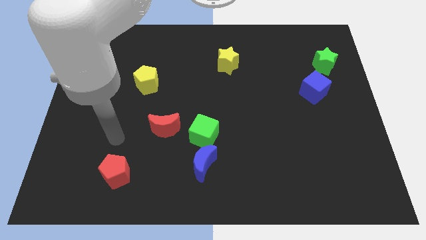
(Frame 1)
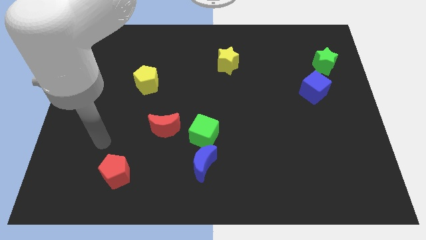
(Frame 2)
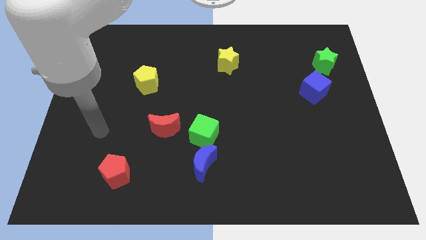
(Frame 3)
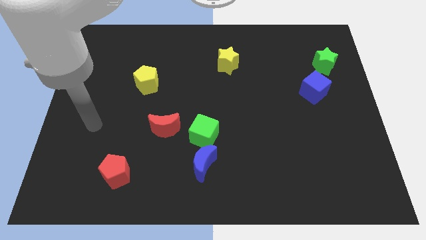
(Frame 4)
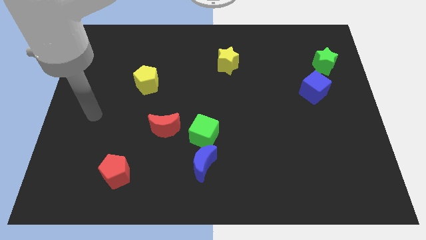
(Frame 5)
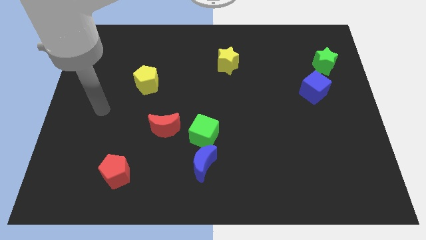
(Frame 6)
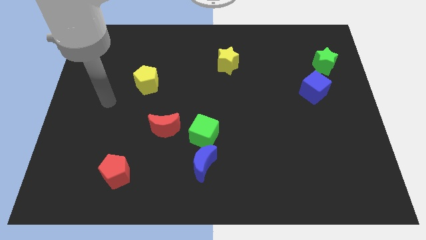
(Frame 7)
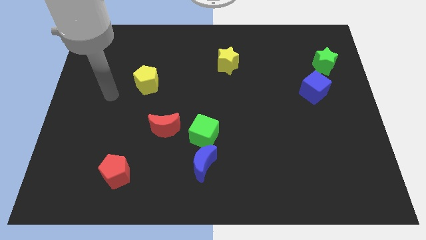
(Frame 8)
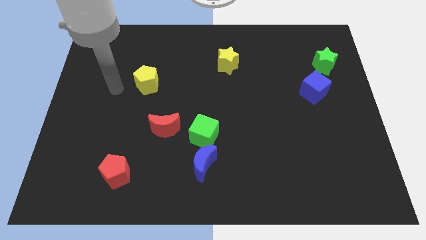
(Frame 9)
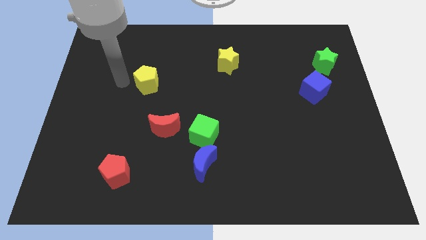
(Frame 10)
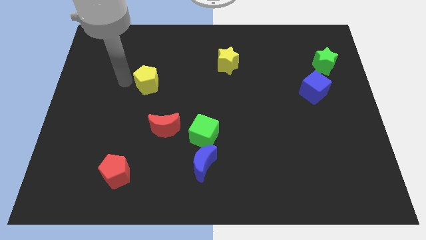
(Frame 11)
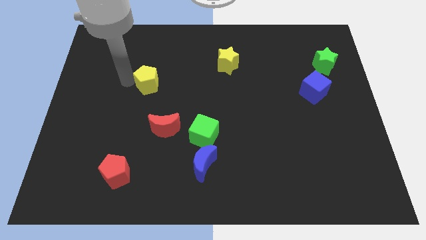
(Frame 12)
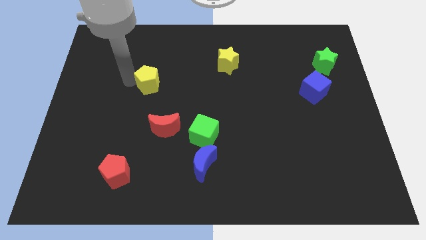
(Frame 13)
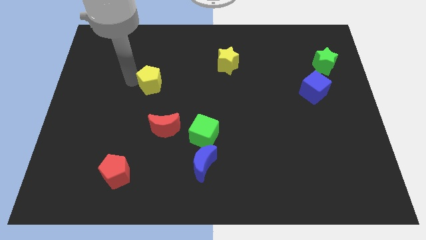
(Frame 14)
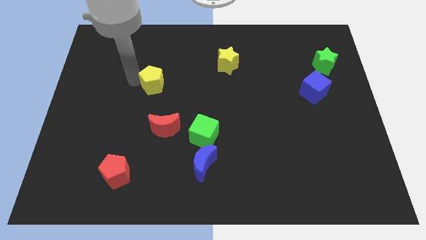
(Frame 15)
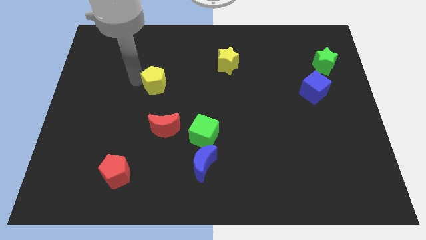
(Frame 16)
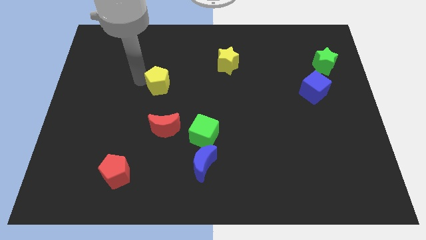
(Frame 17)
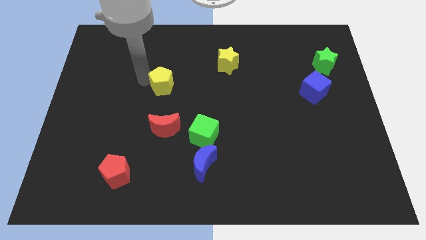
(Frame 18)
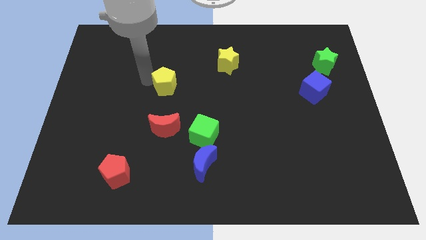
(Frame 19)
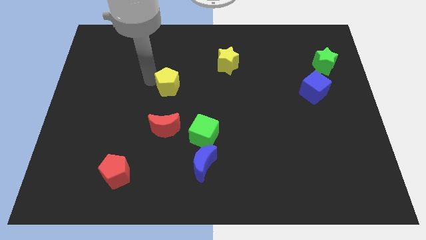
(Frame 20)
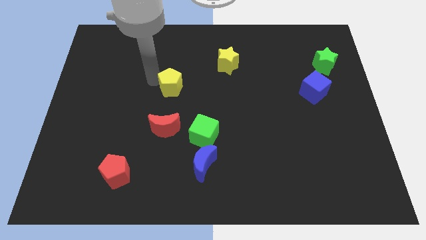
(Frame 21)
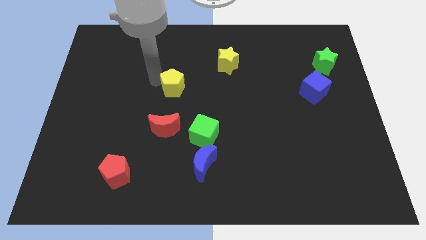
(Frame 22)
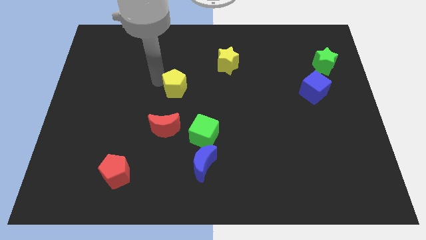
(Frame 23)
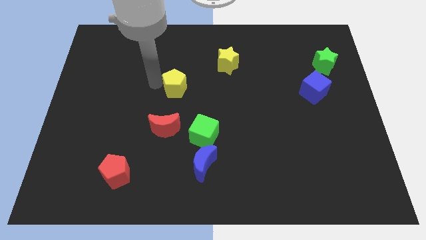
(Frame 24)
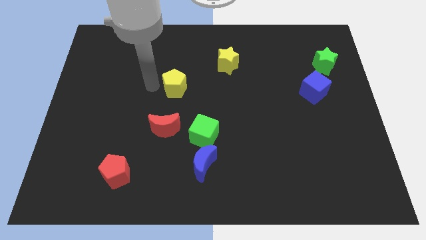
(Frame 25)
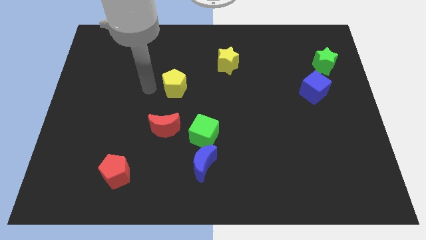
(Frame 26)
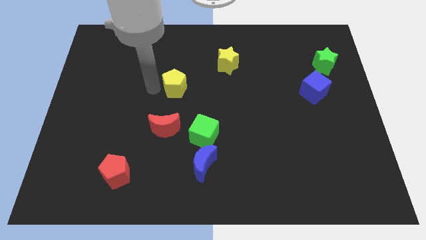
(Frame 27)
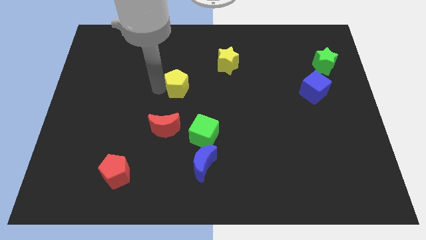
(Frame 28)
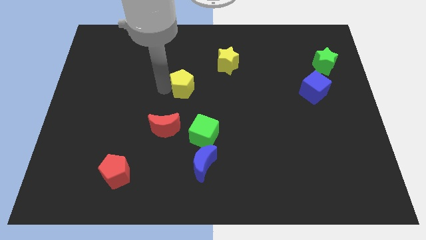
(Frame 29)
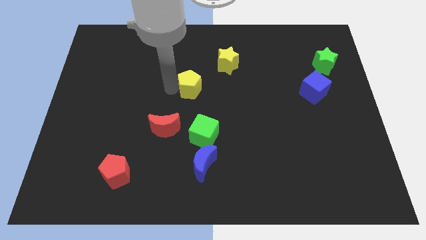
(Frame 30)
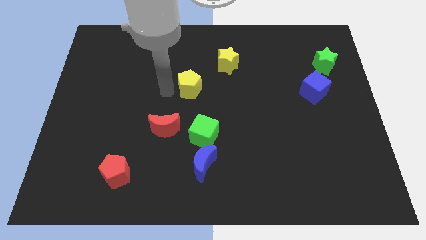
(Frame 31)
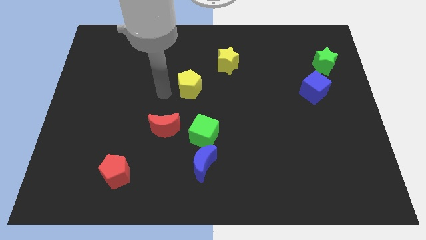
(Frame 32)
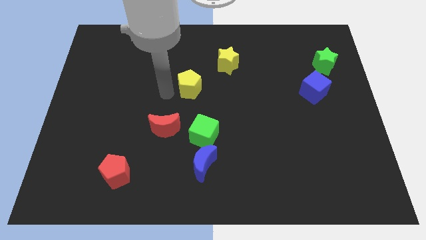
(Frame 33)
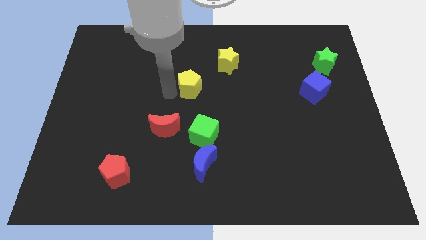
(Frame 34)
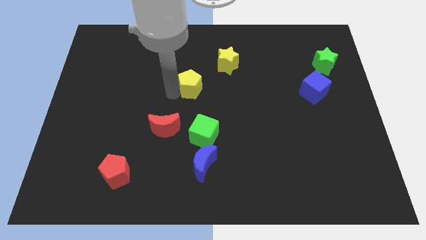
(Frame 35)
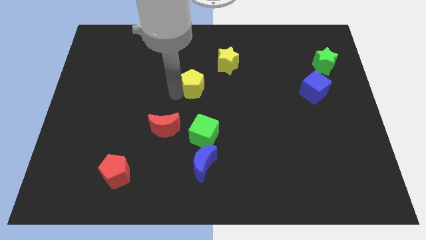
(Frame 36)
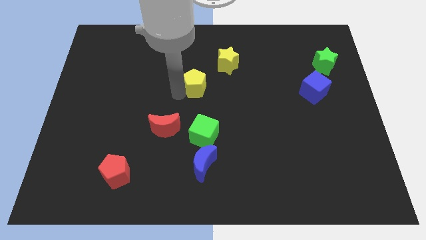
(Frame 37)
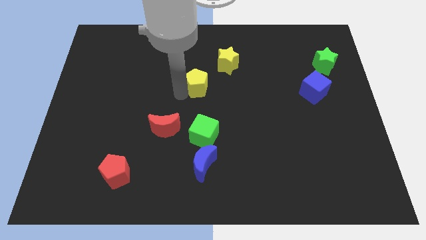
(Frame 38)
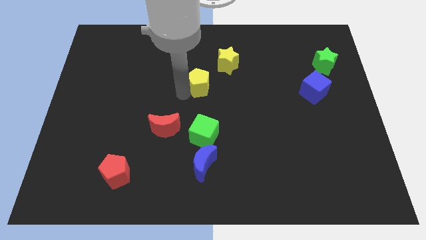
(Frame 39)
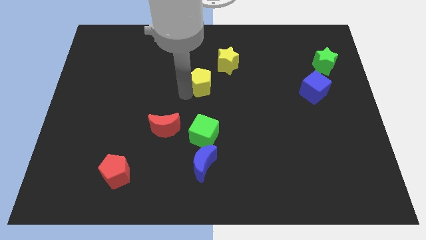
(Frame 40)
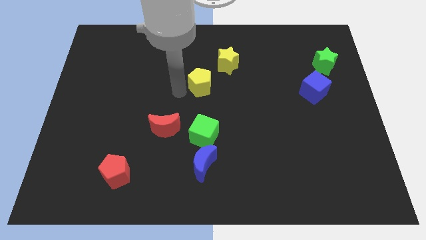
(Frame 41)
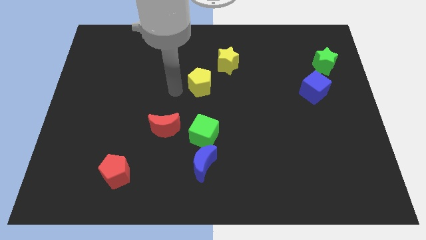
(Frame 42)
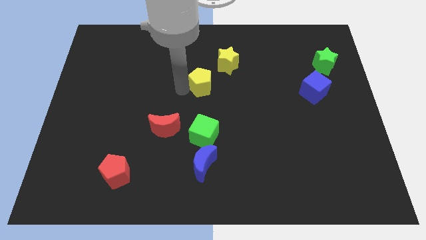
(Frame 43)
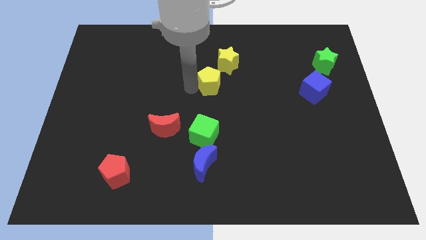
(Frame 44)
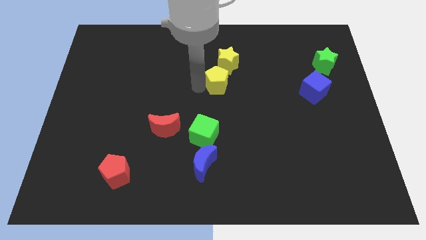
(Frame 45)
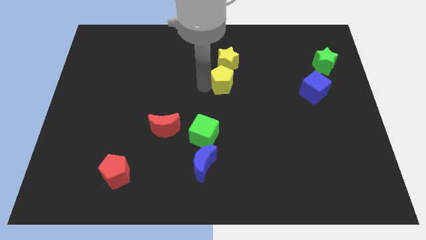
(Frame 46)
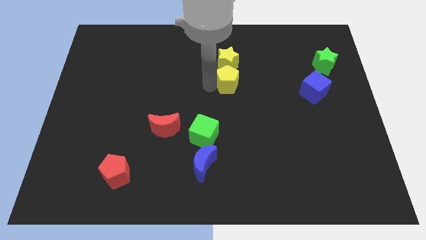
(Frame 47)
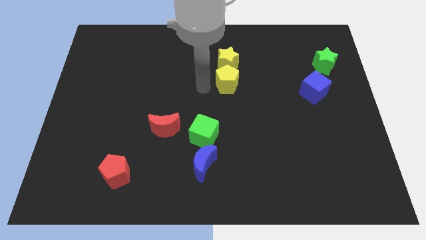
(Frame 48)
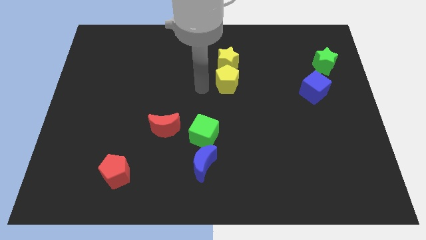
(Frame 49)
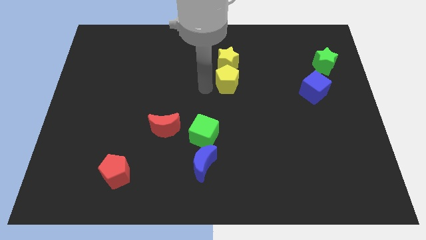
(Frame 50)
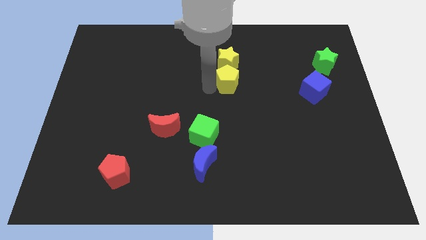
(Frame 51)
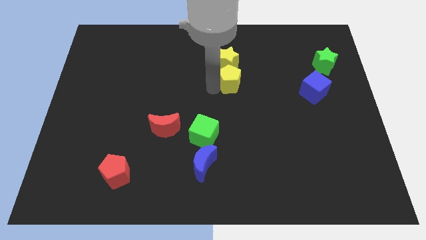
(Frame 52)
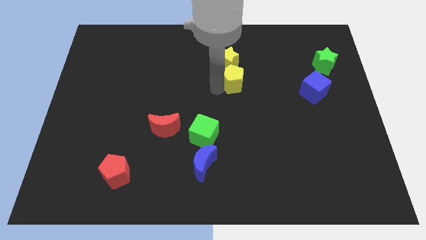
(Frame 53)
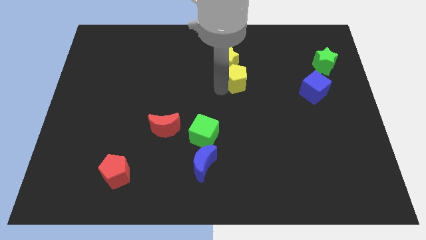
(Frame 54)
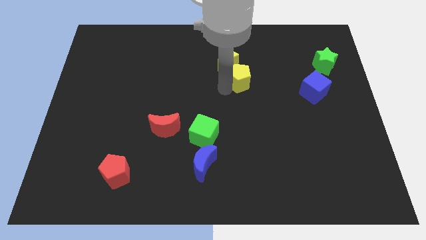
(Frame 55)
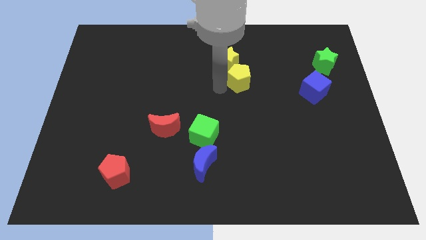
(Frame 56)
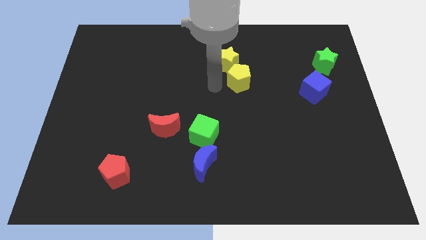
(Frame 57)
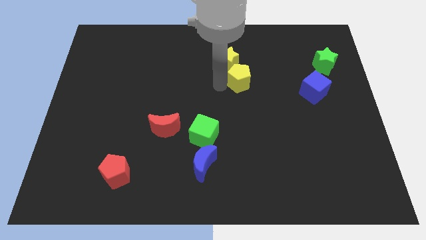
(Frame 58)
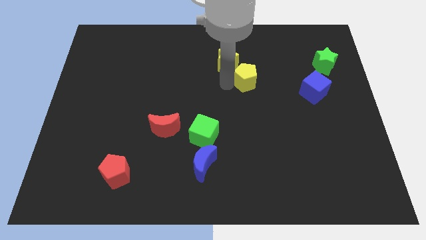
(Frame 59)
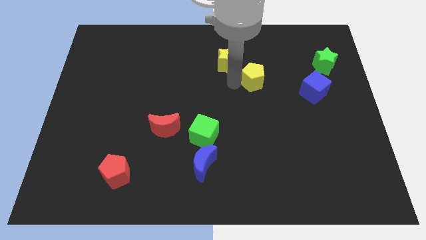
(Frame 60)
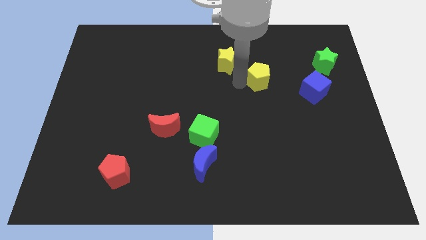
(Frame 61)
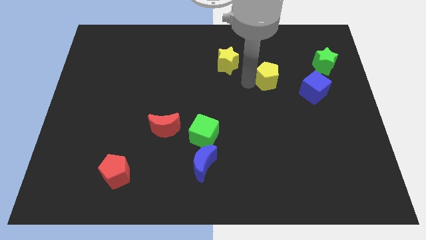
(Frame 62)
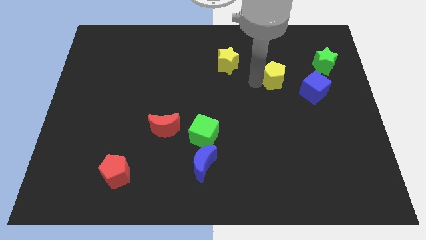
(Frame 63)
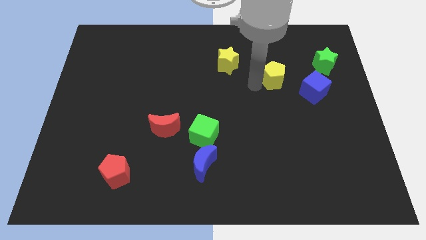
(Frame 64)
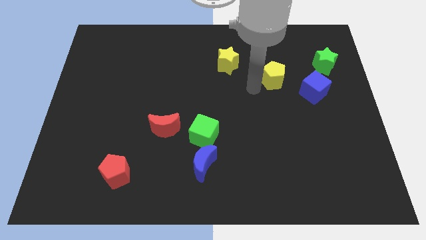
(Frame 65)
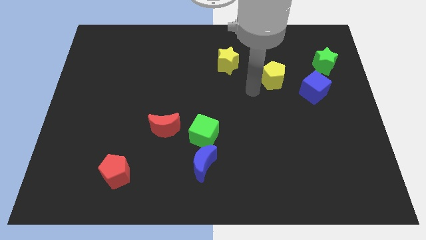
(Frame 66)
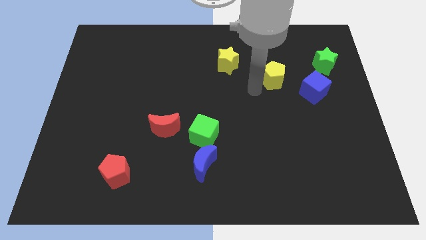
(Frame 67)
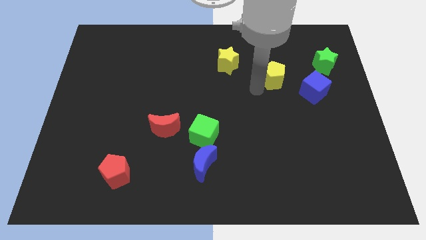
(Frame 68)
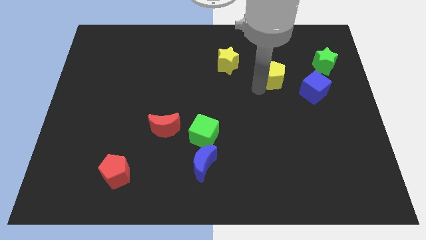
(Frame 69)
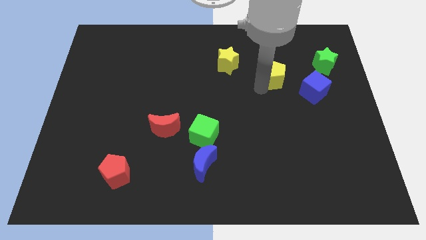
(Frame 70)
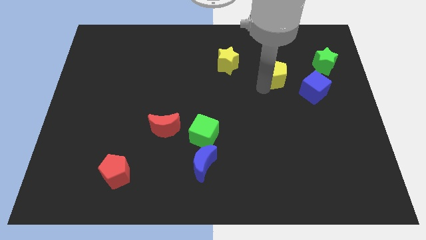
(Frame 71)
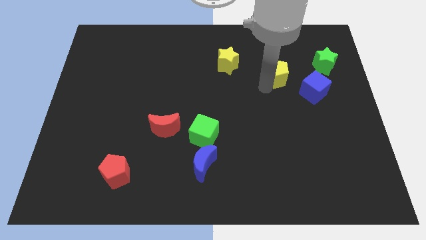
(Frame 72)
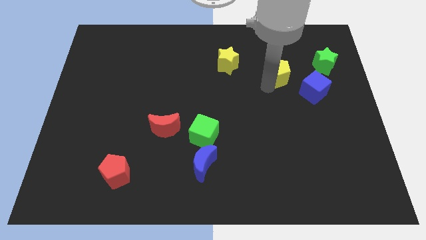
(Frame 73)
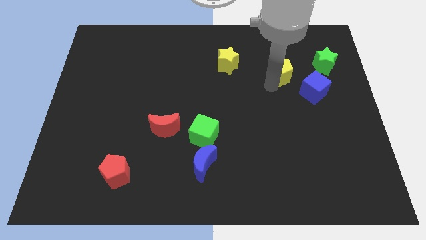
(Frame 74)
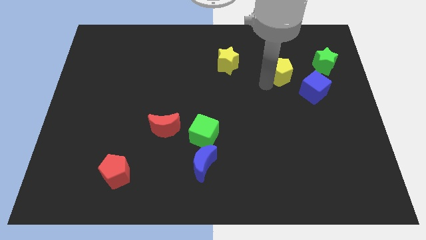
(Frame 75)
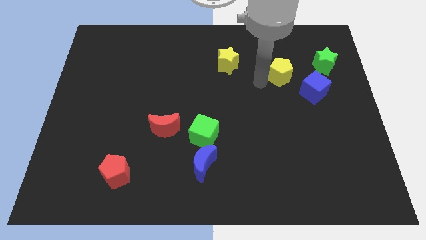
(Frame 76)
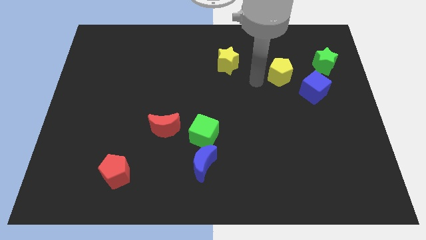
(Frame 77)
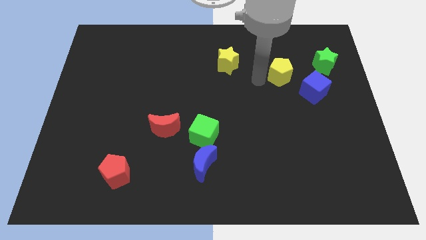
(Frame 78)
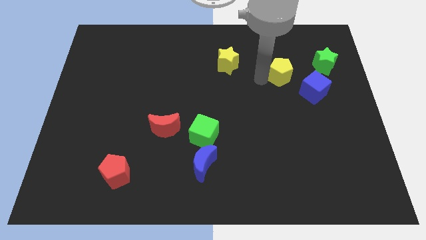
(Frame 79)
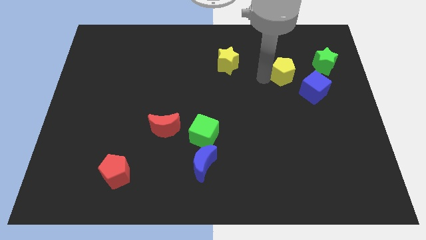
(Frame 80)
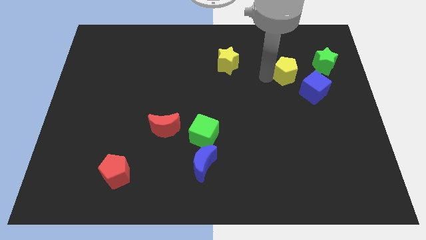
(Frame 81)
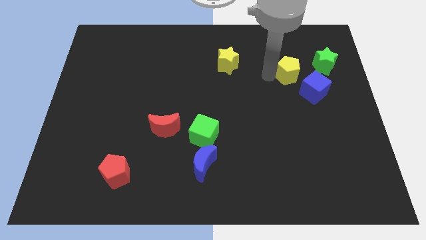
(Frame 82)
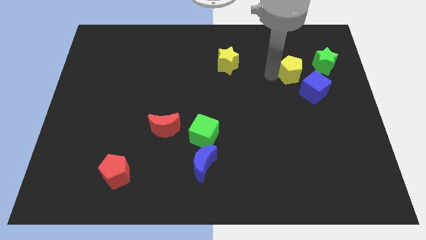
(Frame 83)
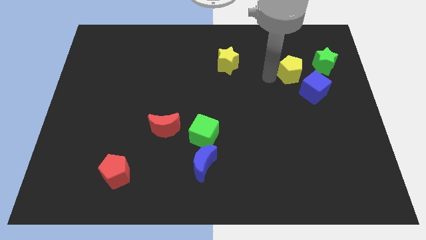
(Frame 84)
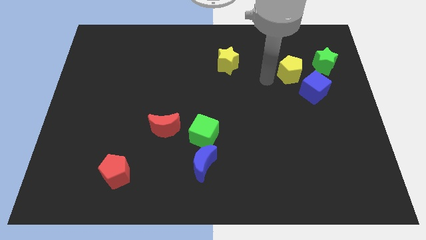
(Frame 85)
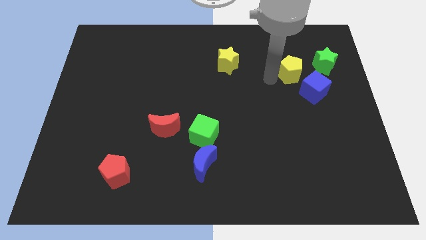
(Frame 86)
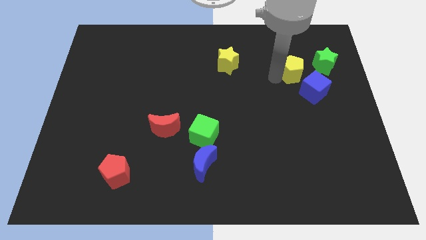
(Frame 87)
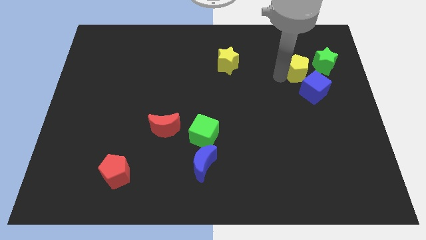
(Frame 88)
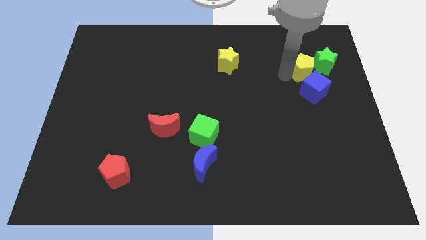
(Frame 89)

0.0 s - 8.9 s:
slide the yellow pentagon towards the green star
